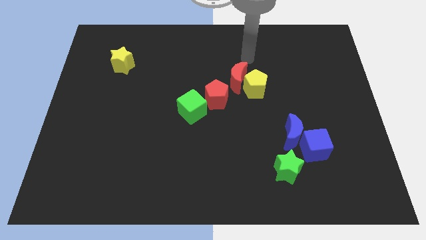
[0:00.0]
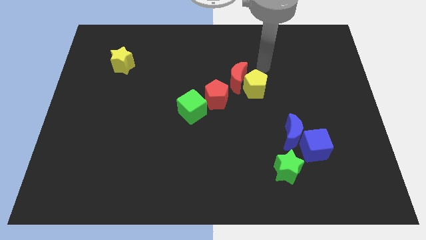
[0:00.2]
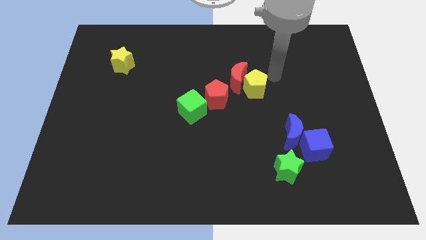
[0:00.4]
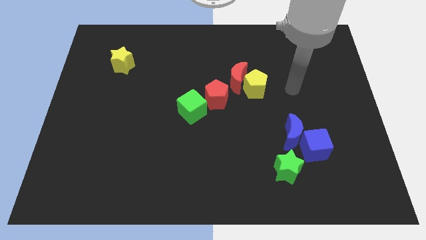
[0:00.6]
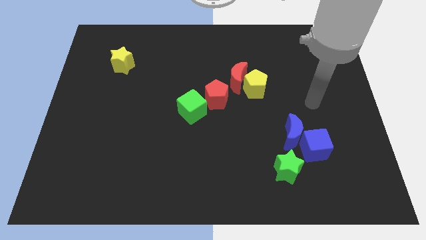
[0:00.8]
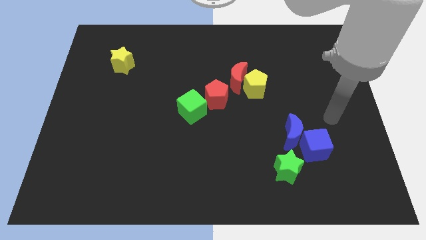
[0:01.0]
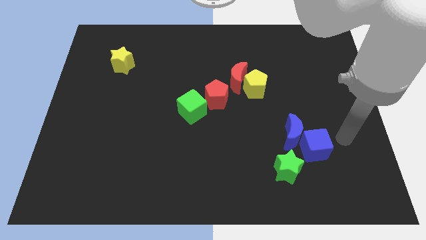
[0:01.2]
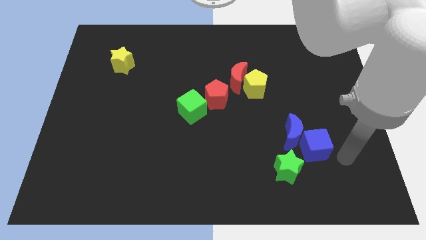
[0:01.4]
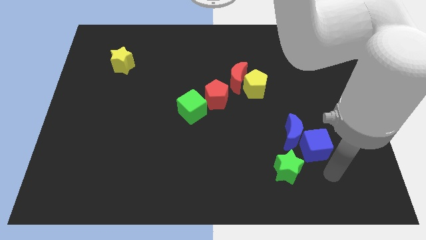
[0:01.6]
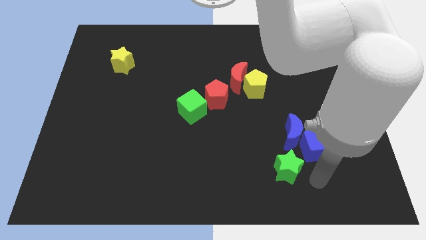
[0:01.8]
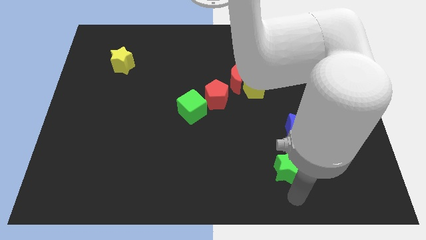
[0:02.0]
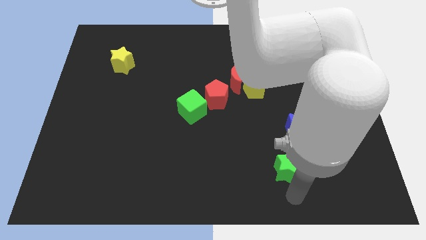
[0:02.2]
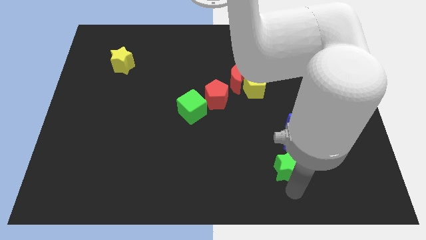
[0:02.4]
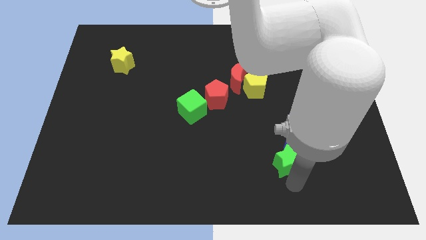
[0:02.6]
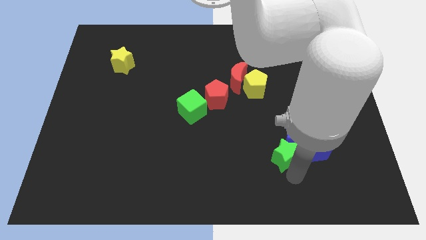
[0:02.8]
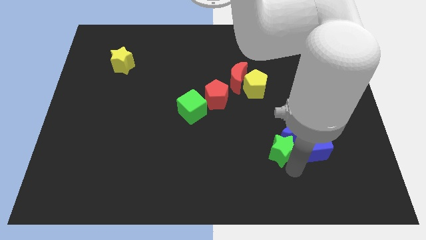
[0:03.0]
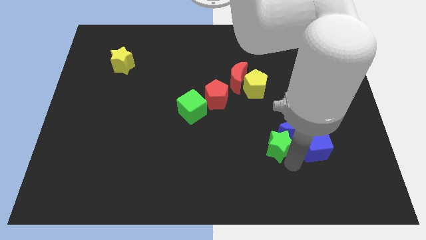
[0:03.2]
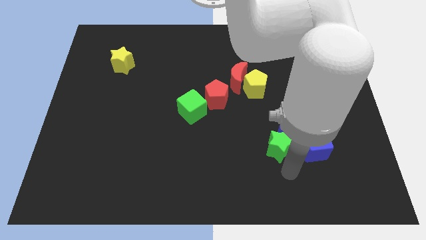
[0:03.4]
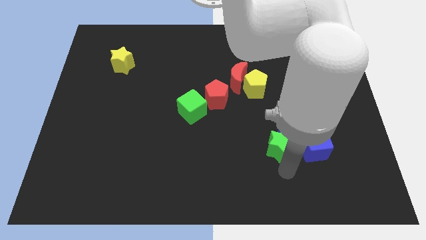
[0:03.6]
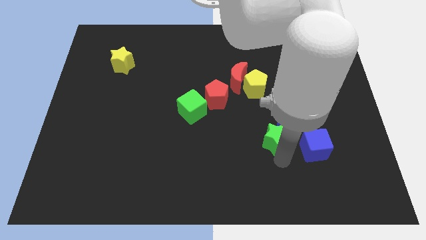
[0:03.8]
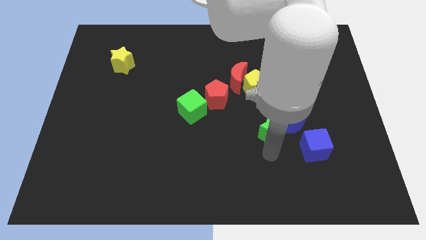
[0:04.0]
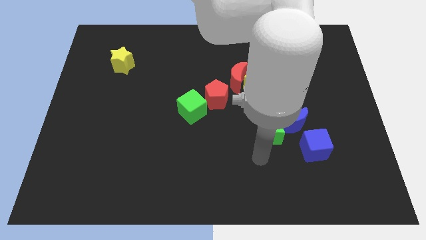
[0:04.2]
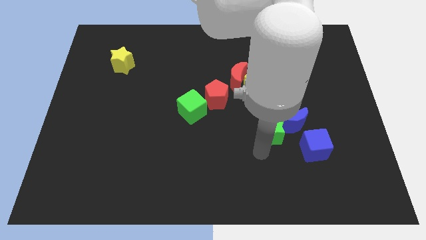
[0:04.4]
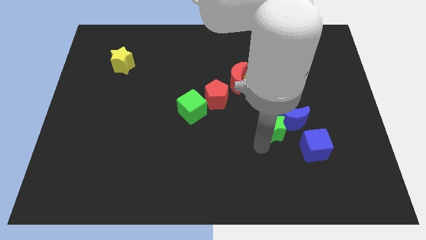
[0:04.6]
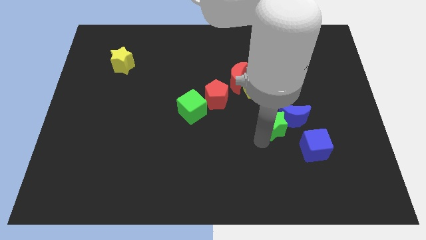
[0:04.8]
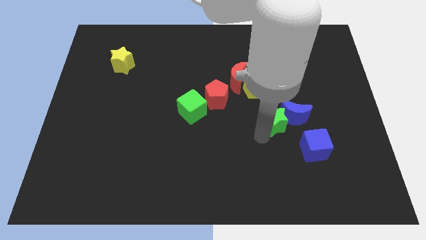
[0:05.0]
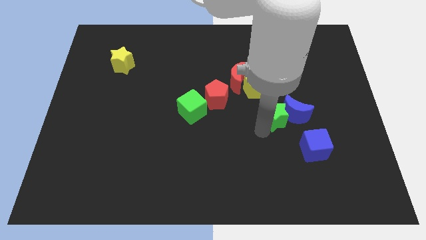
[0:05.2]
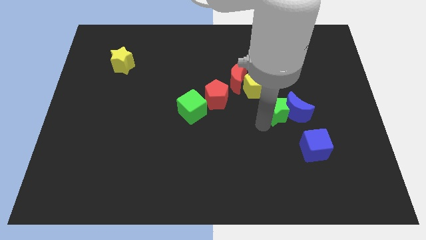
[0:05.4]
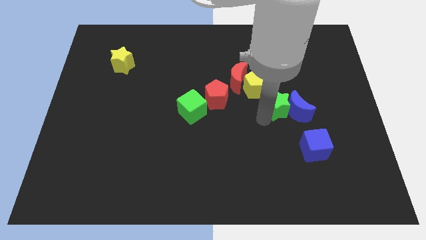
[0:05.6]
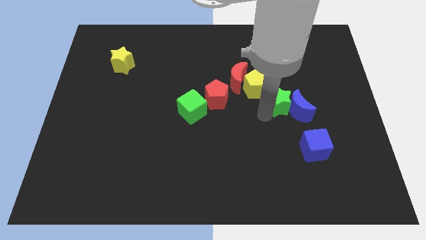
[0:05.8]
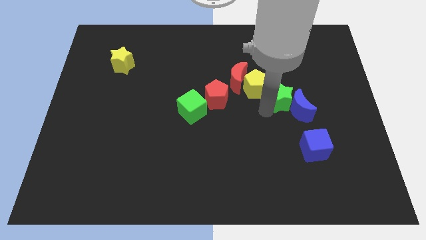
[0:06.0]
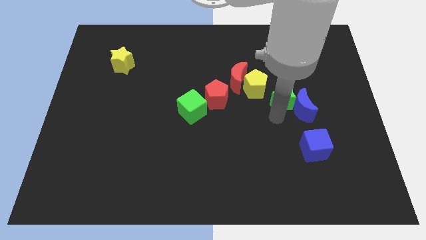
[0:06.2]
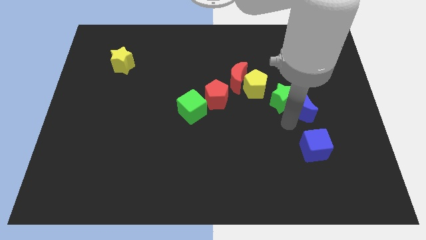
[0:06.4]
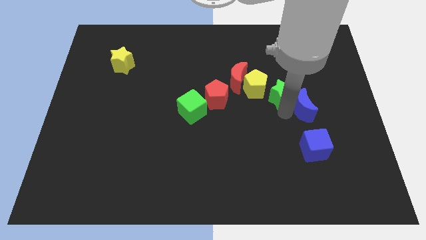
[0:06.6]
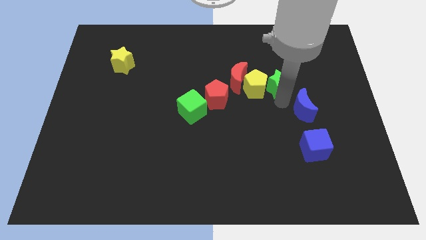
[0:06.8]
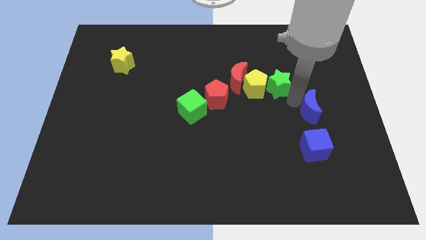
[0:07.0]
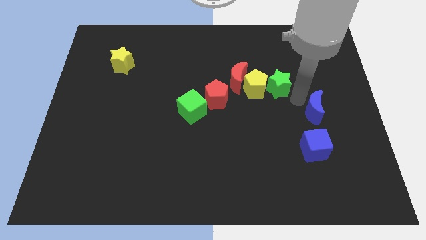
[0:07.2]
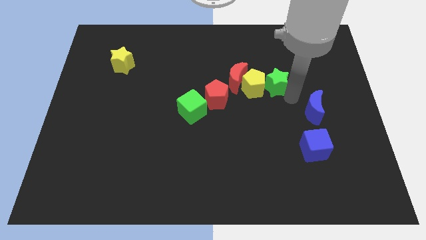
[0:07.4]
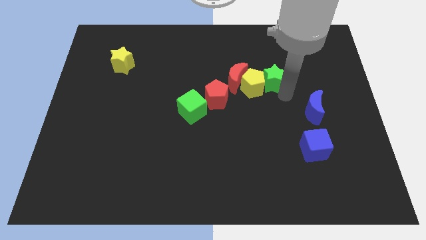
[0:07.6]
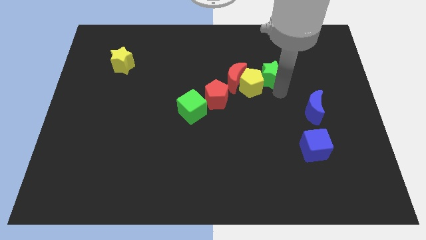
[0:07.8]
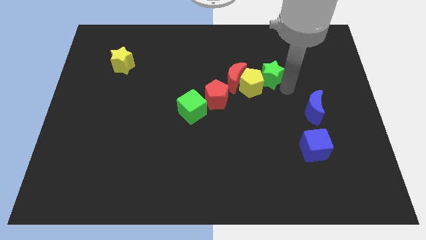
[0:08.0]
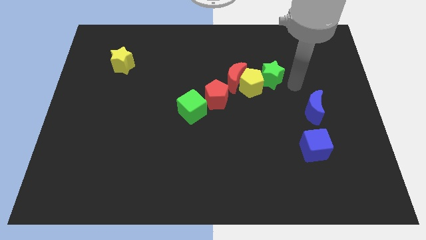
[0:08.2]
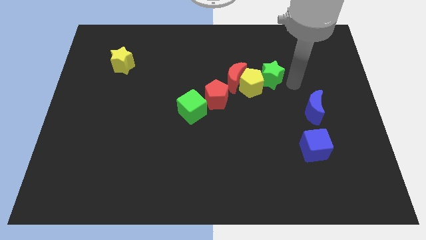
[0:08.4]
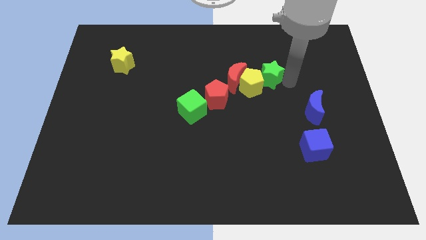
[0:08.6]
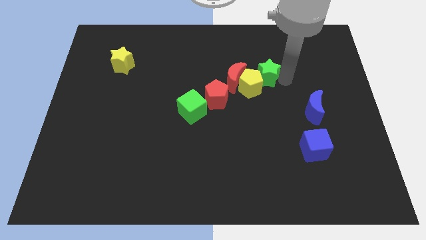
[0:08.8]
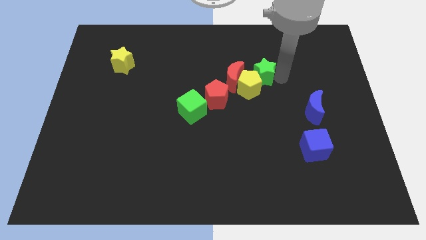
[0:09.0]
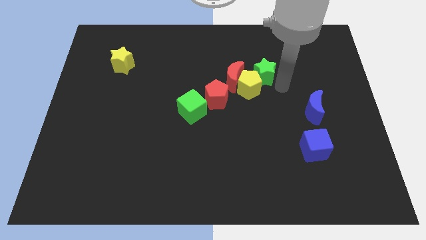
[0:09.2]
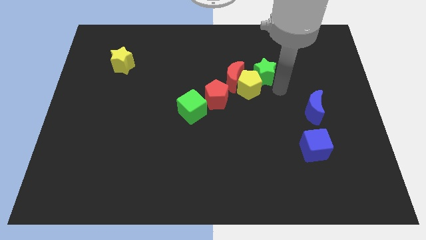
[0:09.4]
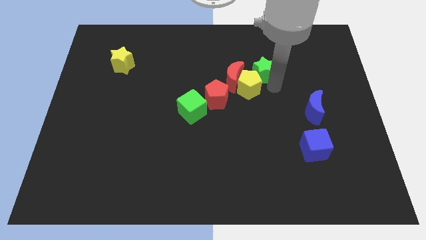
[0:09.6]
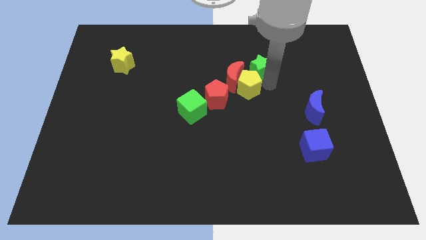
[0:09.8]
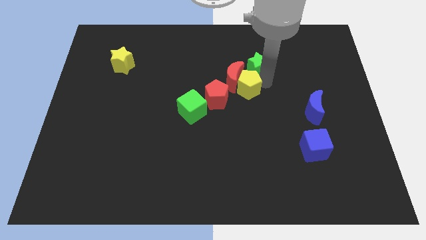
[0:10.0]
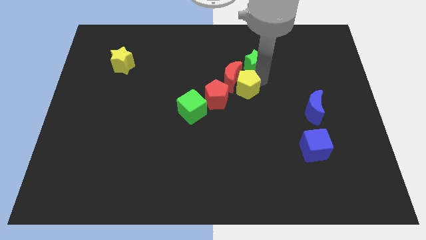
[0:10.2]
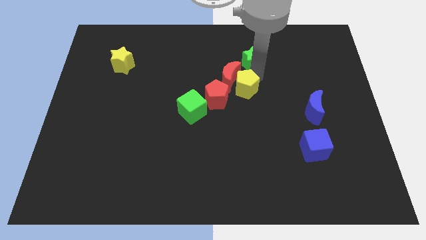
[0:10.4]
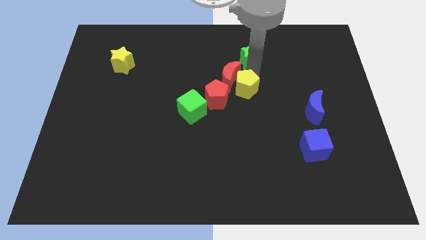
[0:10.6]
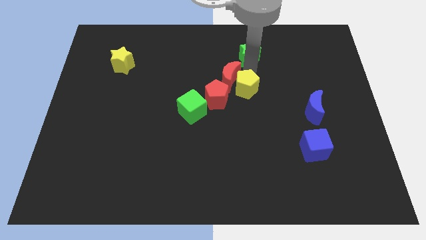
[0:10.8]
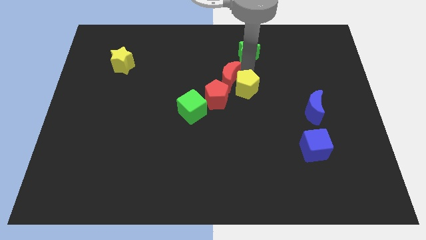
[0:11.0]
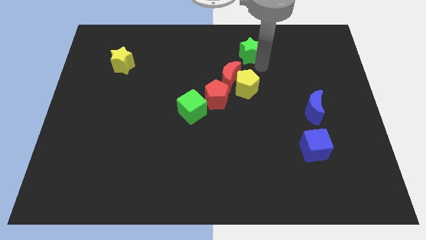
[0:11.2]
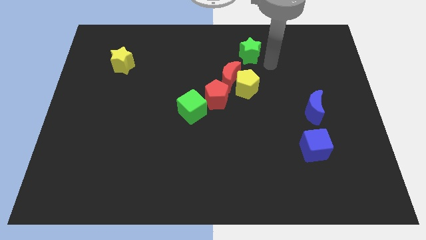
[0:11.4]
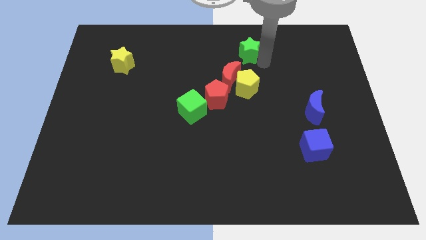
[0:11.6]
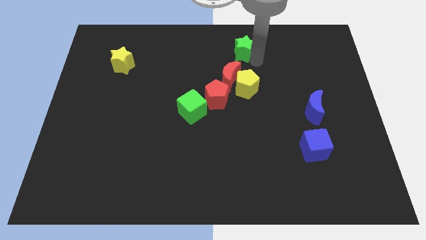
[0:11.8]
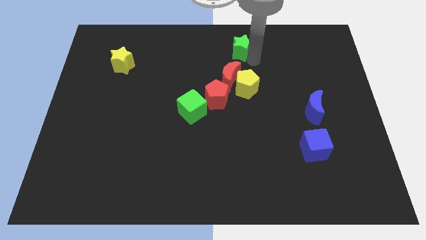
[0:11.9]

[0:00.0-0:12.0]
push the green star to the top side
